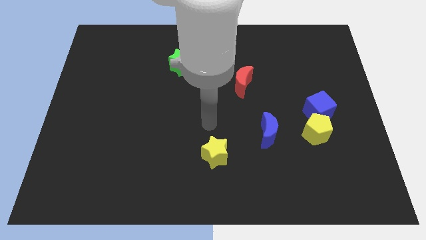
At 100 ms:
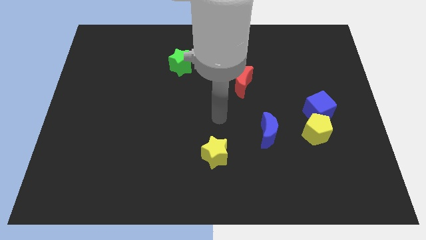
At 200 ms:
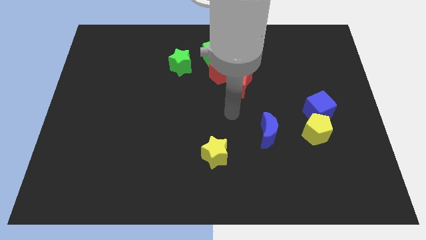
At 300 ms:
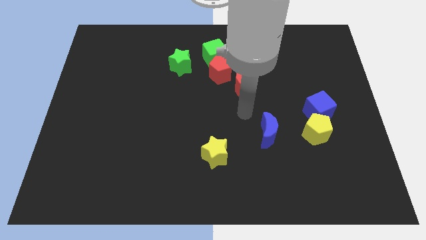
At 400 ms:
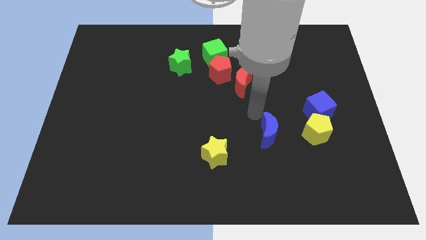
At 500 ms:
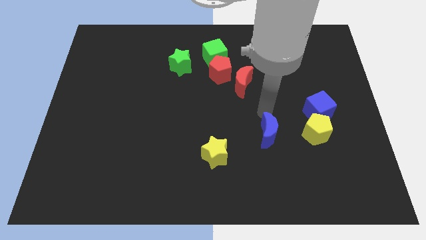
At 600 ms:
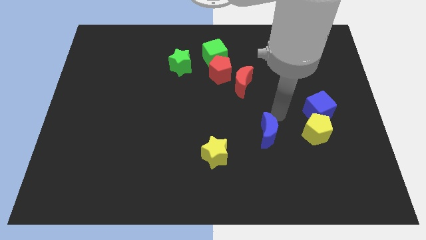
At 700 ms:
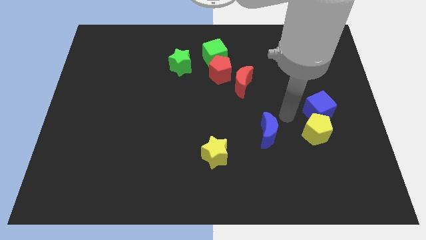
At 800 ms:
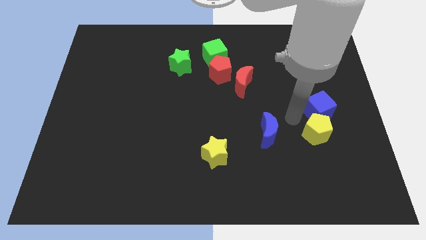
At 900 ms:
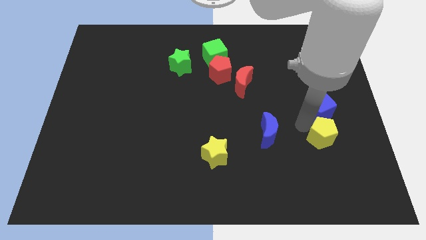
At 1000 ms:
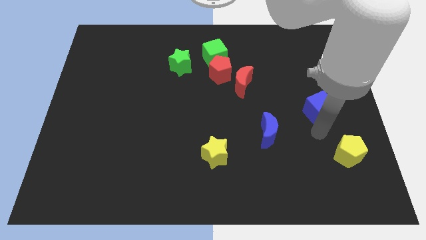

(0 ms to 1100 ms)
separate the blue cube from the yellow pentagon

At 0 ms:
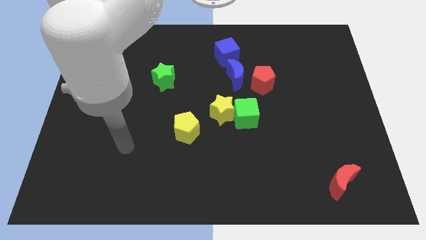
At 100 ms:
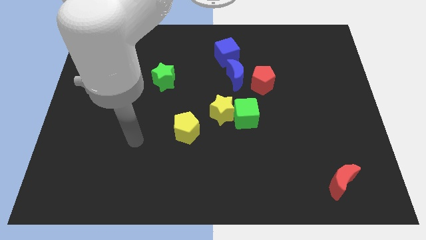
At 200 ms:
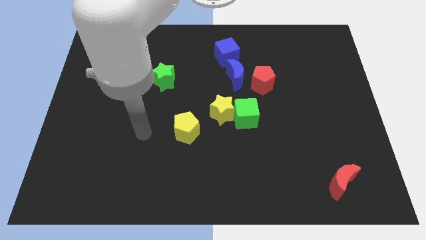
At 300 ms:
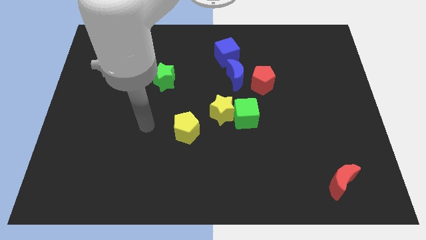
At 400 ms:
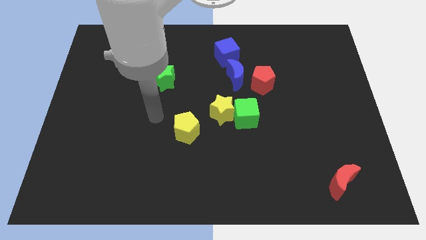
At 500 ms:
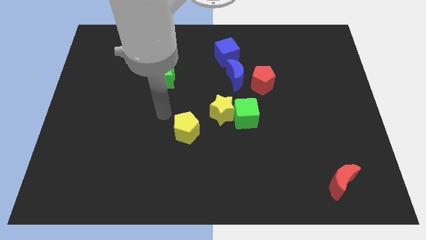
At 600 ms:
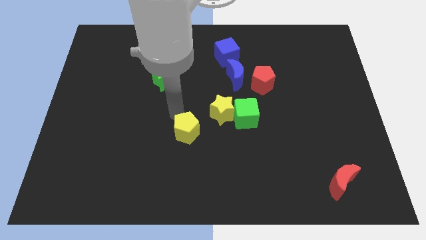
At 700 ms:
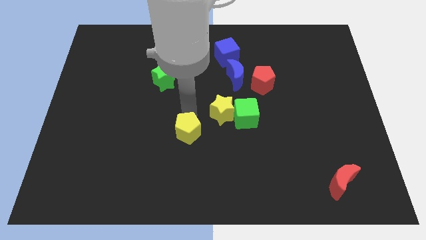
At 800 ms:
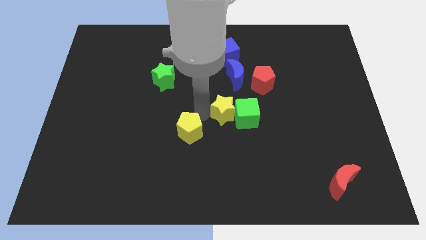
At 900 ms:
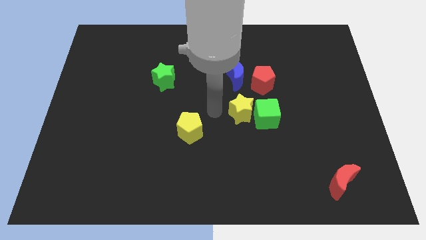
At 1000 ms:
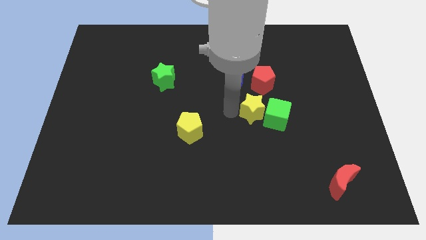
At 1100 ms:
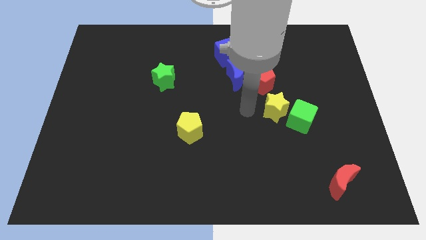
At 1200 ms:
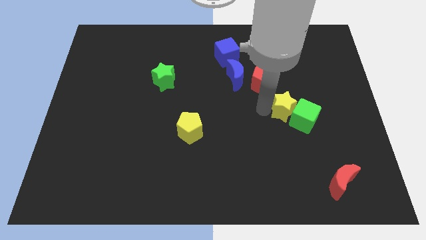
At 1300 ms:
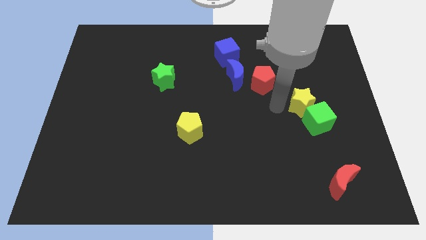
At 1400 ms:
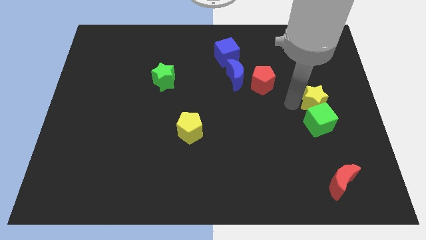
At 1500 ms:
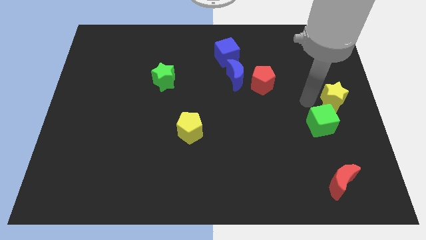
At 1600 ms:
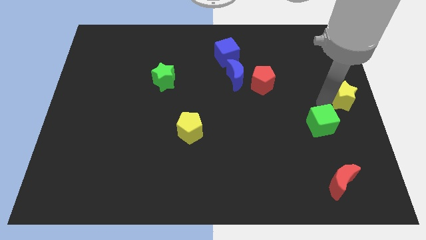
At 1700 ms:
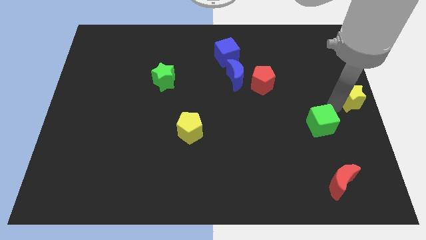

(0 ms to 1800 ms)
separate the green cube from the yellow star

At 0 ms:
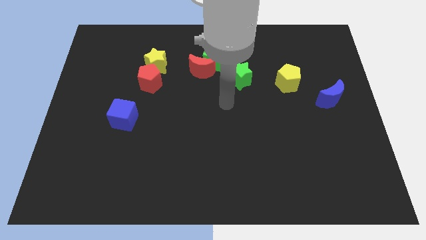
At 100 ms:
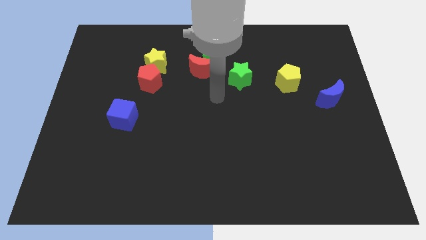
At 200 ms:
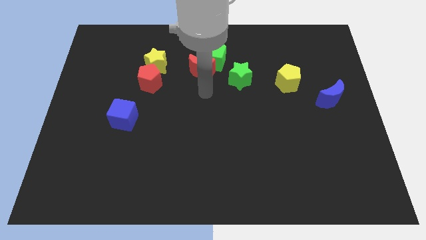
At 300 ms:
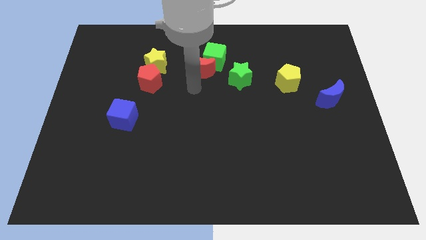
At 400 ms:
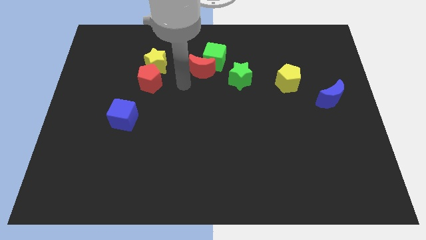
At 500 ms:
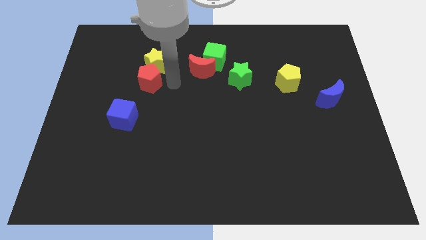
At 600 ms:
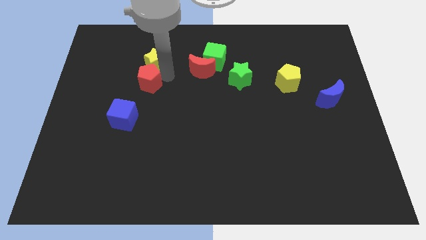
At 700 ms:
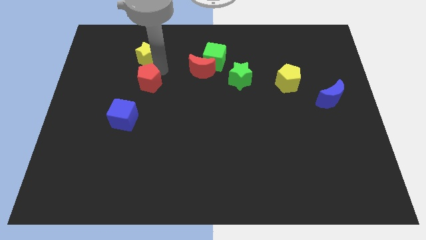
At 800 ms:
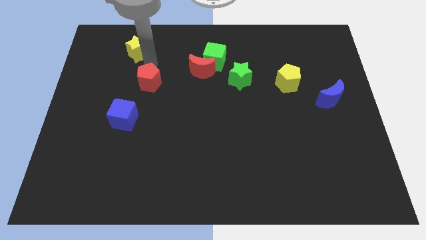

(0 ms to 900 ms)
separate the red pentagon from the yellow star

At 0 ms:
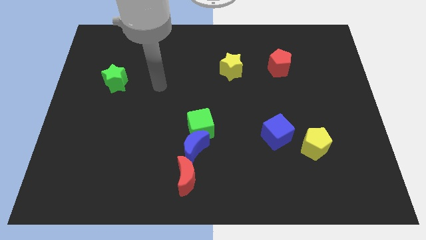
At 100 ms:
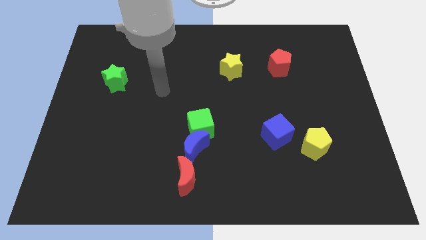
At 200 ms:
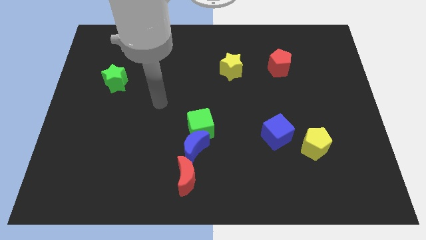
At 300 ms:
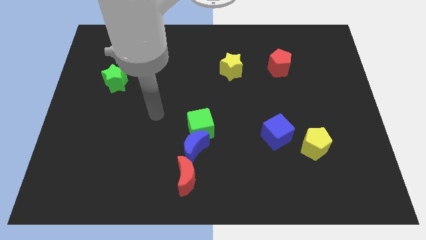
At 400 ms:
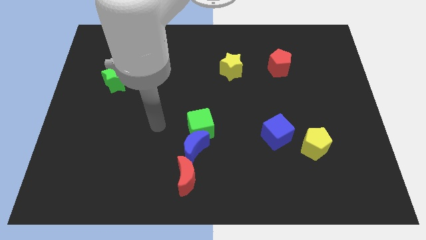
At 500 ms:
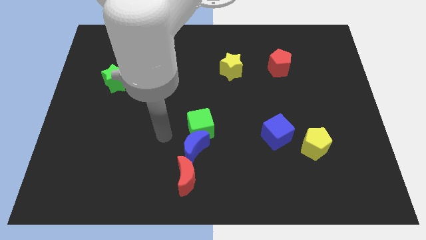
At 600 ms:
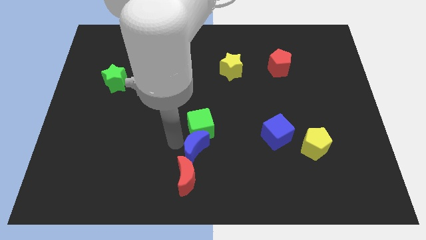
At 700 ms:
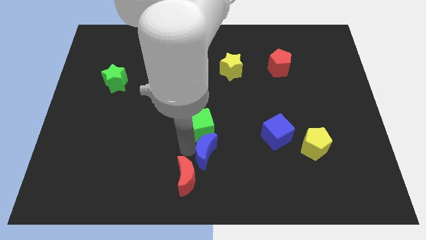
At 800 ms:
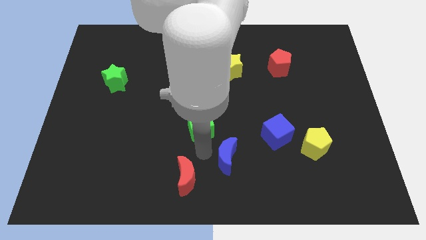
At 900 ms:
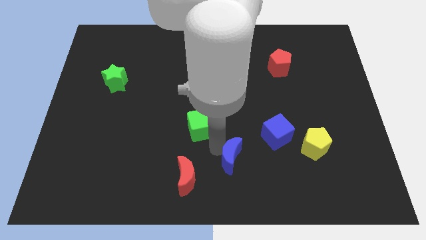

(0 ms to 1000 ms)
separate the green cube from the blue moon

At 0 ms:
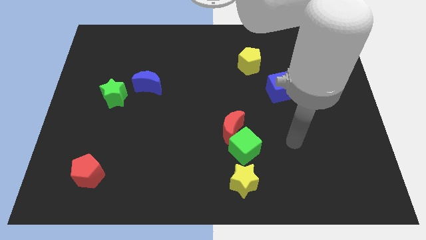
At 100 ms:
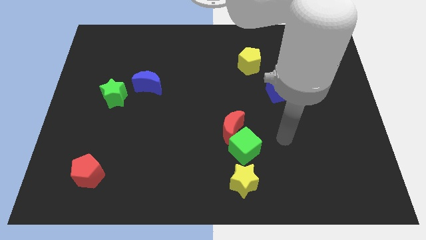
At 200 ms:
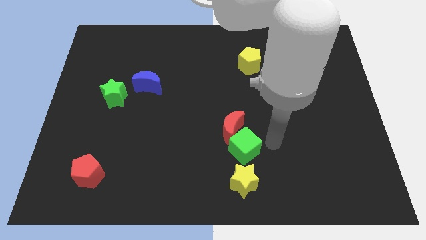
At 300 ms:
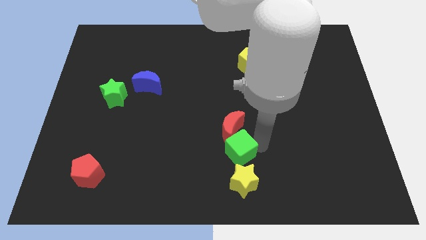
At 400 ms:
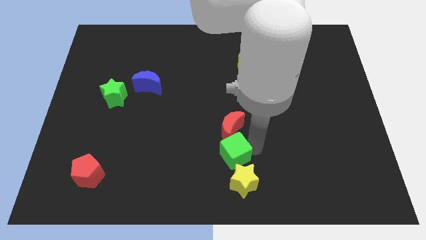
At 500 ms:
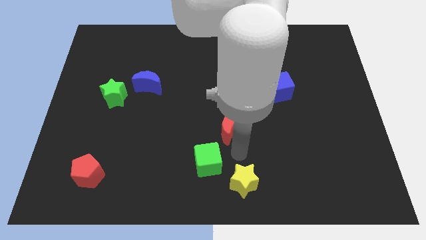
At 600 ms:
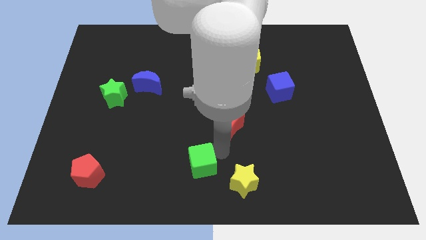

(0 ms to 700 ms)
separate the red moon from the green cube

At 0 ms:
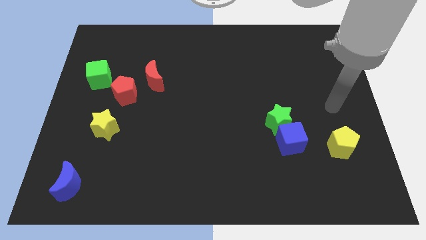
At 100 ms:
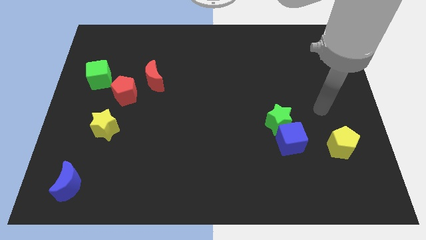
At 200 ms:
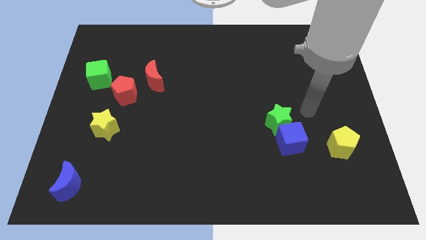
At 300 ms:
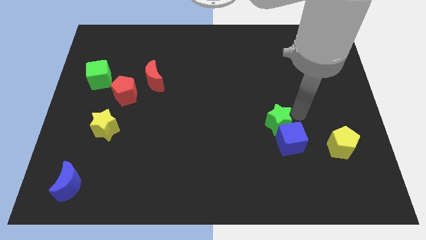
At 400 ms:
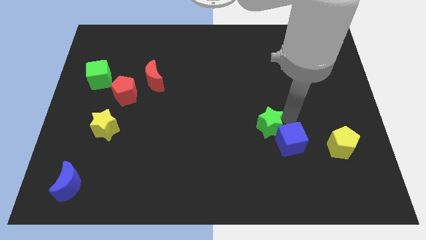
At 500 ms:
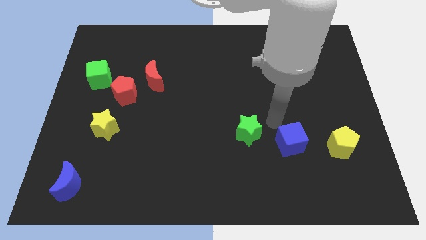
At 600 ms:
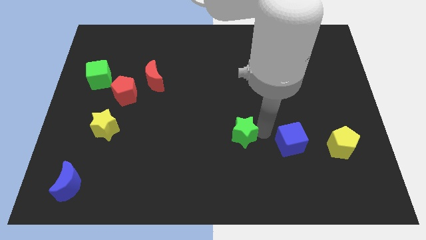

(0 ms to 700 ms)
pull the blue cube apart from the green star

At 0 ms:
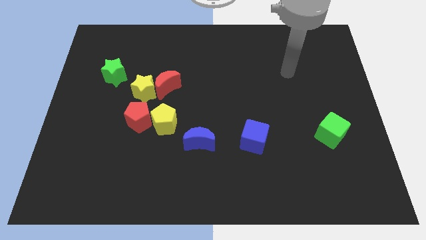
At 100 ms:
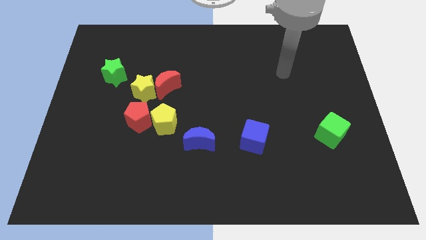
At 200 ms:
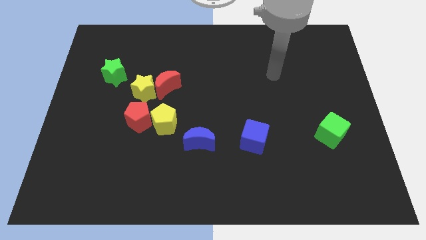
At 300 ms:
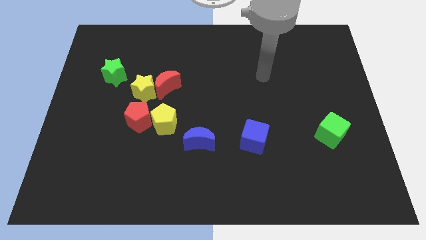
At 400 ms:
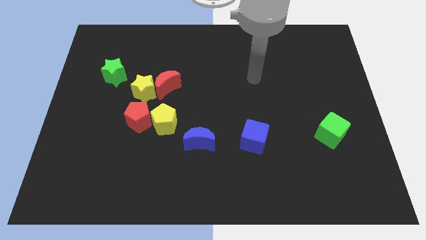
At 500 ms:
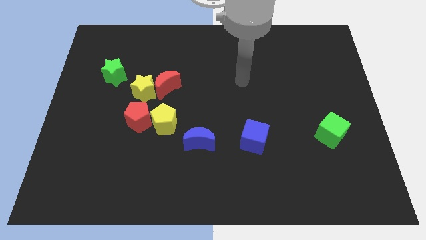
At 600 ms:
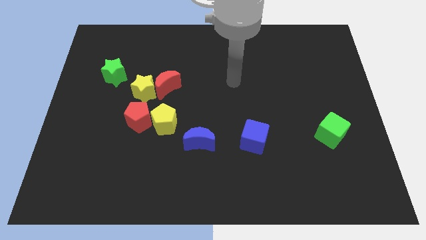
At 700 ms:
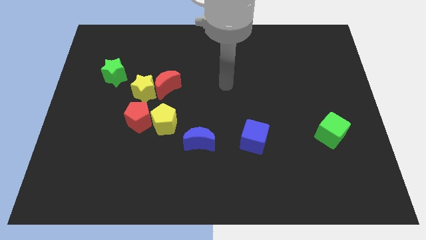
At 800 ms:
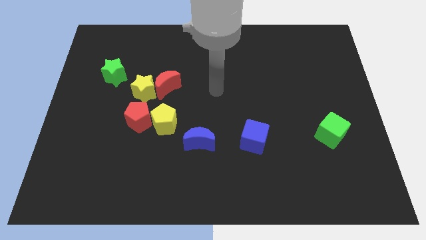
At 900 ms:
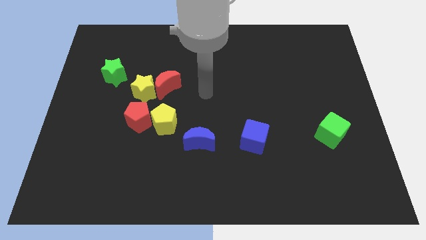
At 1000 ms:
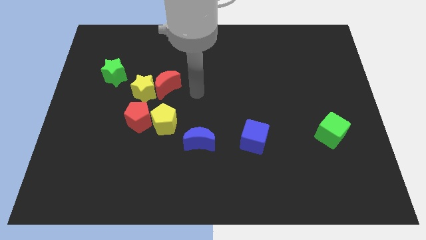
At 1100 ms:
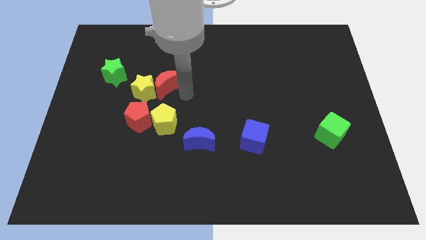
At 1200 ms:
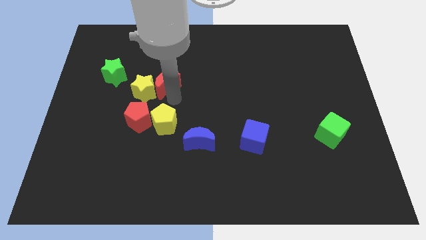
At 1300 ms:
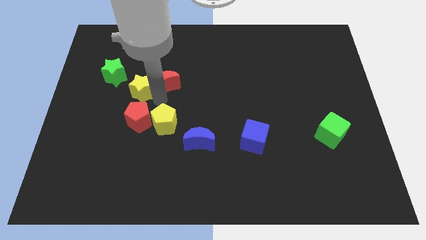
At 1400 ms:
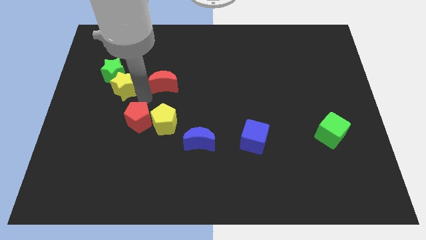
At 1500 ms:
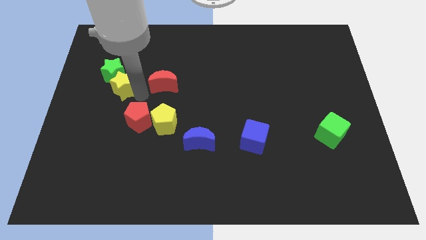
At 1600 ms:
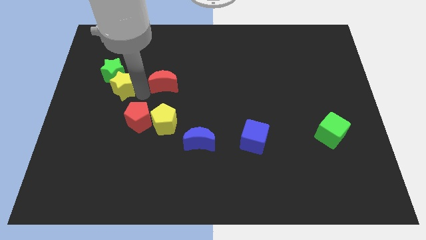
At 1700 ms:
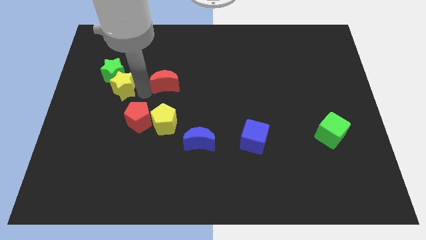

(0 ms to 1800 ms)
separate the red moon from the yellow star

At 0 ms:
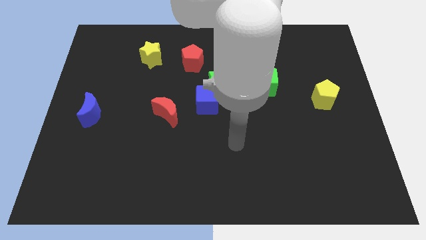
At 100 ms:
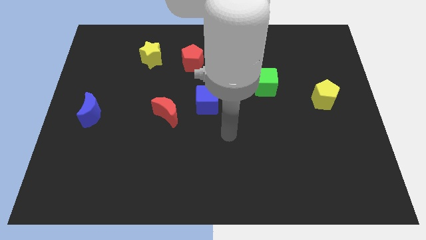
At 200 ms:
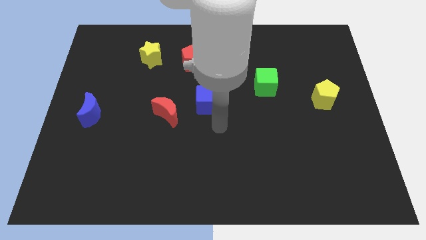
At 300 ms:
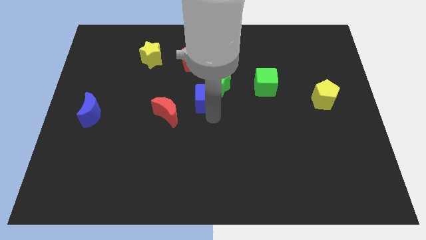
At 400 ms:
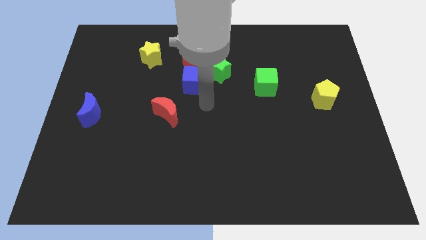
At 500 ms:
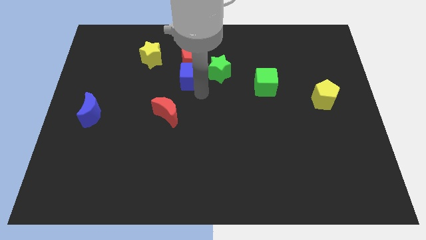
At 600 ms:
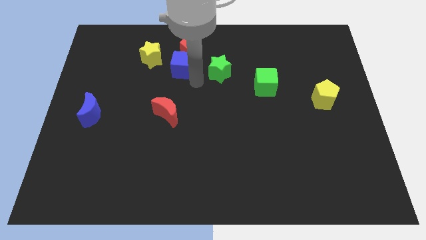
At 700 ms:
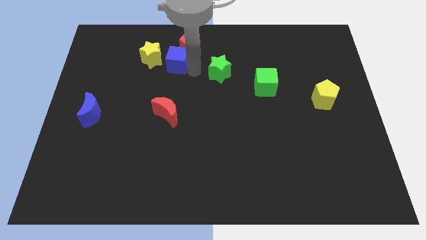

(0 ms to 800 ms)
pull the green star apart from the blue cube

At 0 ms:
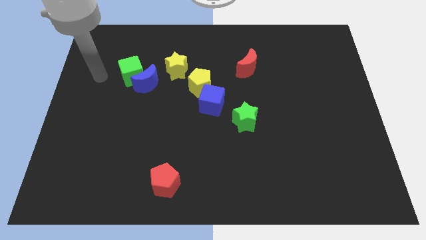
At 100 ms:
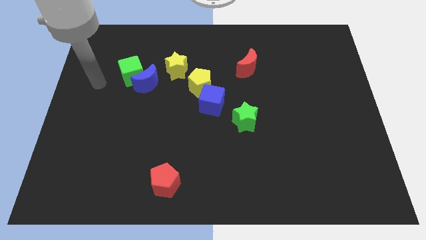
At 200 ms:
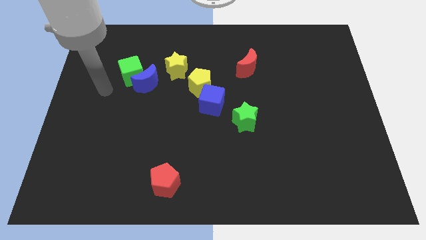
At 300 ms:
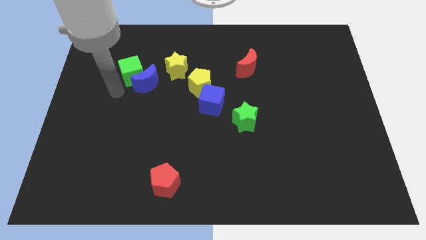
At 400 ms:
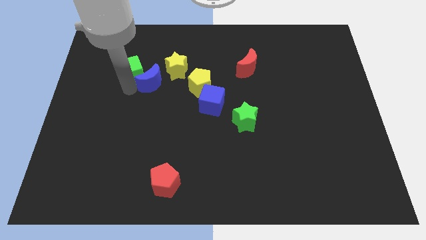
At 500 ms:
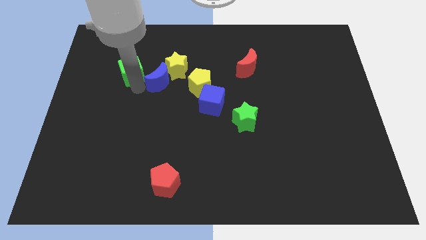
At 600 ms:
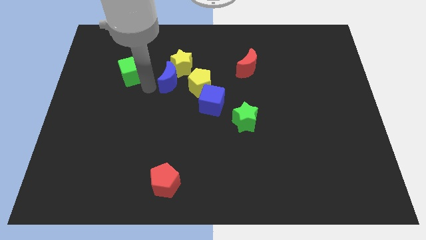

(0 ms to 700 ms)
pull the green cube apart from the blue moon

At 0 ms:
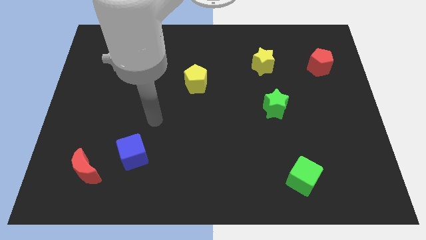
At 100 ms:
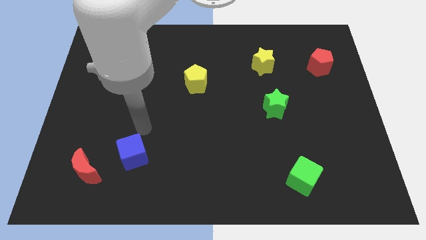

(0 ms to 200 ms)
separate the red moon from the blue cube
